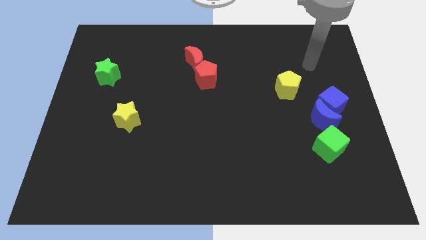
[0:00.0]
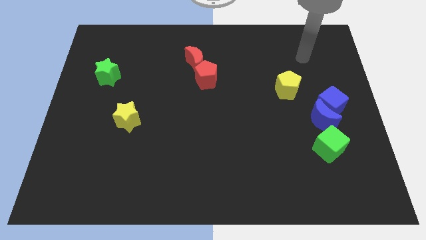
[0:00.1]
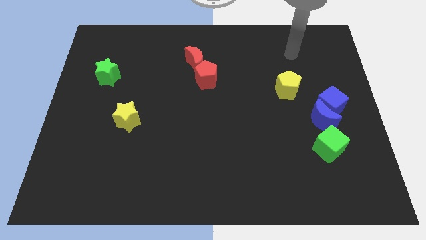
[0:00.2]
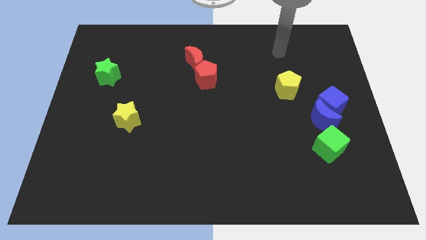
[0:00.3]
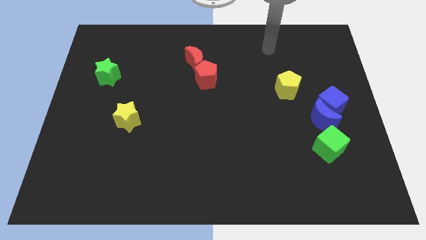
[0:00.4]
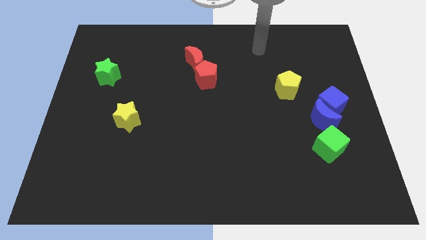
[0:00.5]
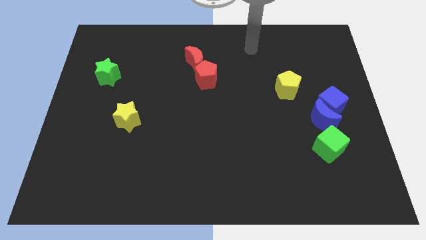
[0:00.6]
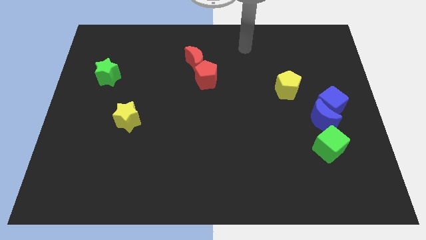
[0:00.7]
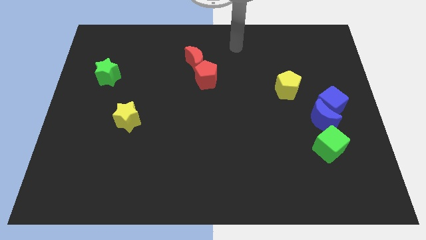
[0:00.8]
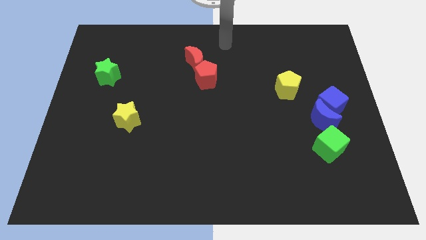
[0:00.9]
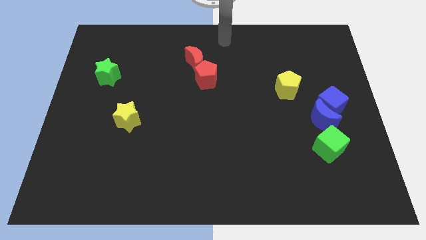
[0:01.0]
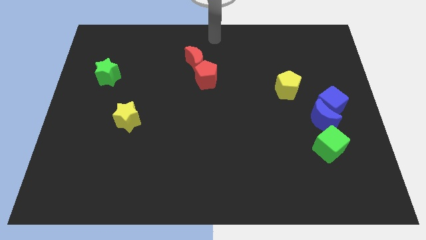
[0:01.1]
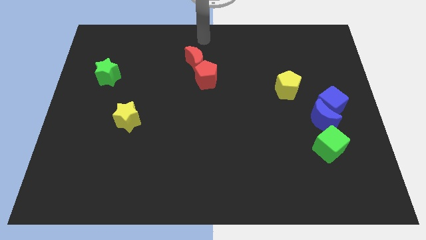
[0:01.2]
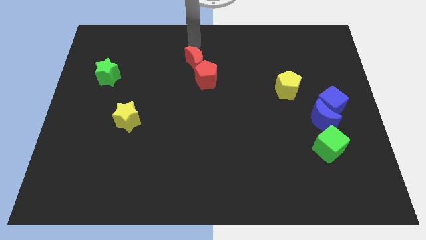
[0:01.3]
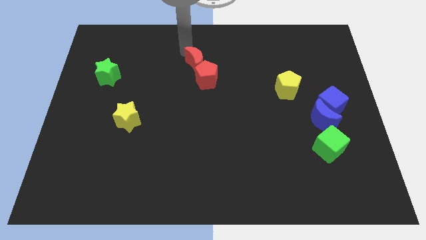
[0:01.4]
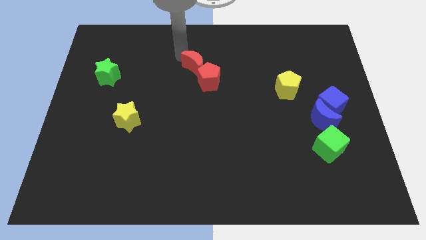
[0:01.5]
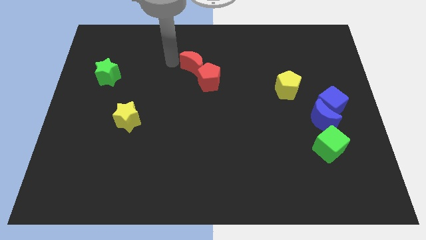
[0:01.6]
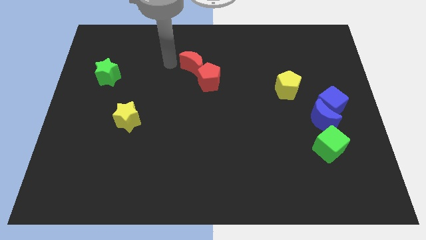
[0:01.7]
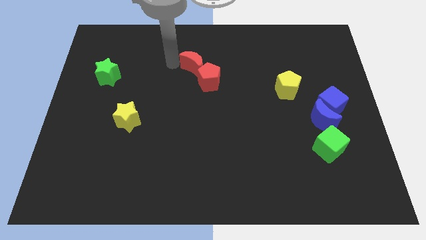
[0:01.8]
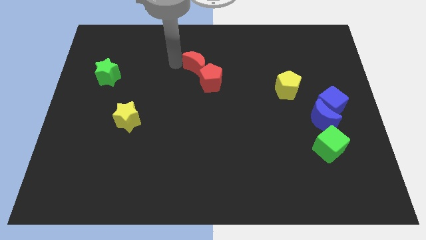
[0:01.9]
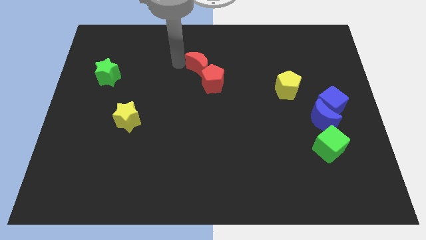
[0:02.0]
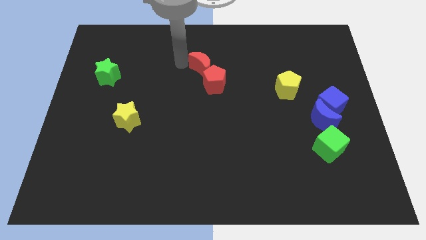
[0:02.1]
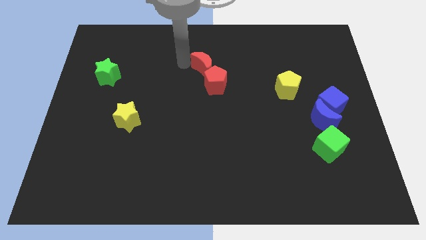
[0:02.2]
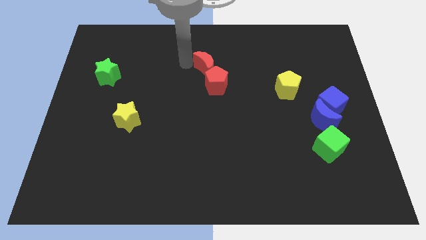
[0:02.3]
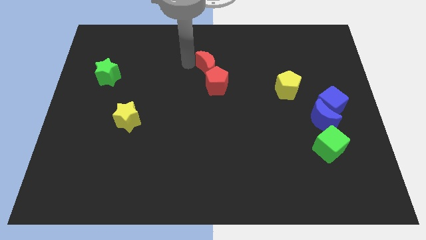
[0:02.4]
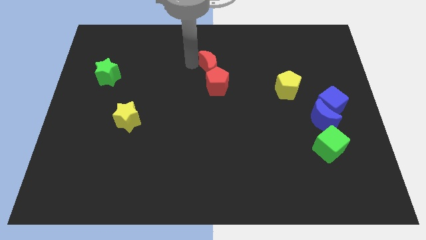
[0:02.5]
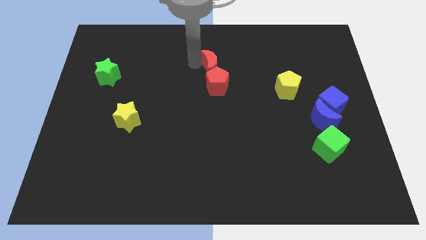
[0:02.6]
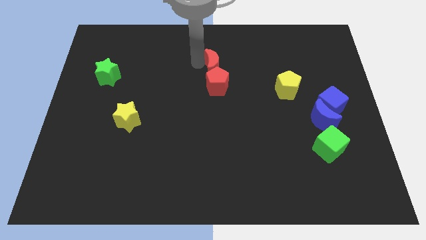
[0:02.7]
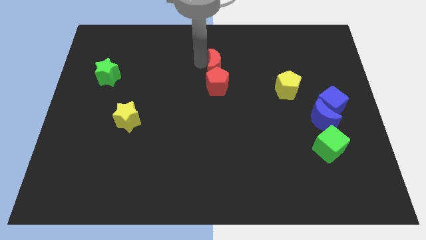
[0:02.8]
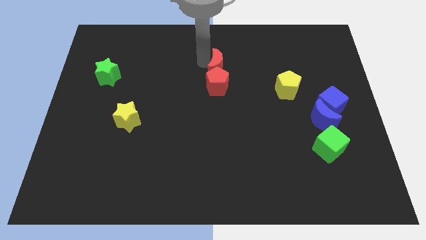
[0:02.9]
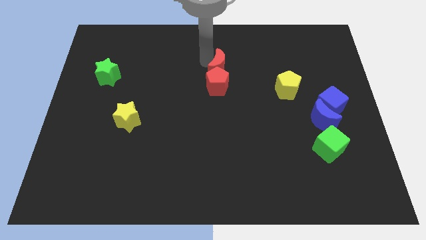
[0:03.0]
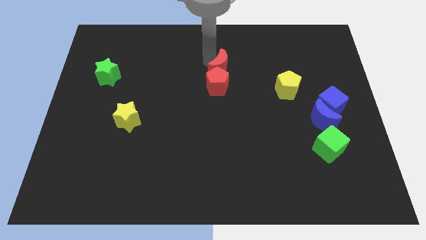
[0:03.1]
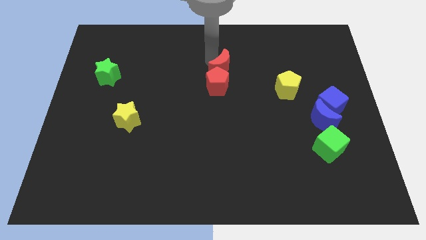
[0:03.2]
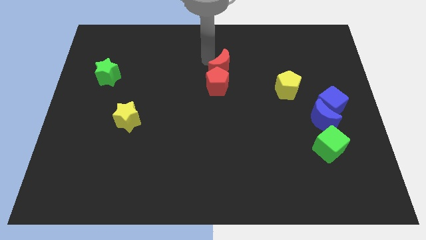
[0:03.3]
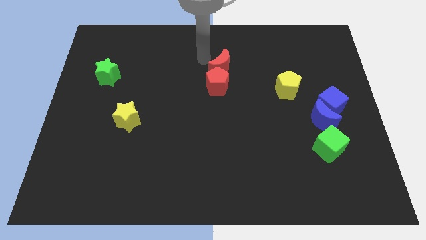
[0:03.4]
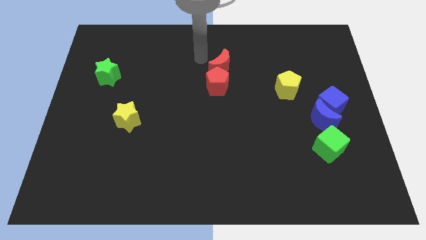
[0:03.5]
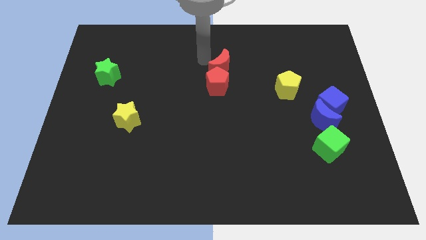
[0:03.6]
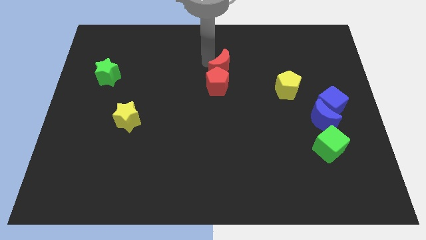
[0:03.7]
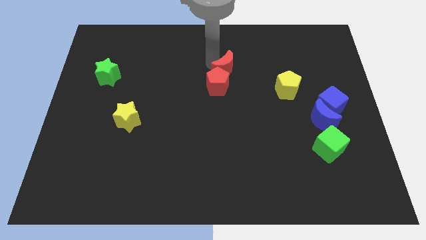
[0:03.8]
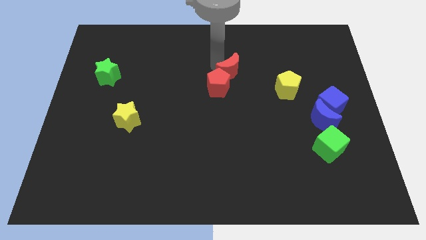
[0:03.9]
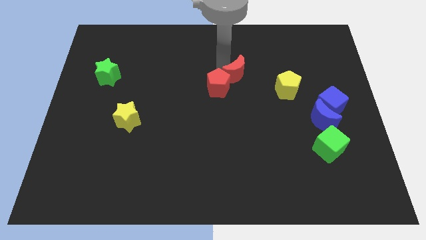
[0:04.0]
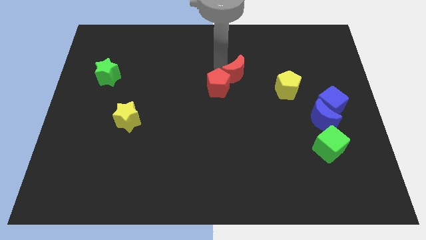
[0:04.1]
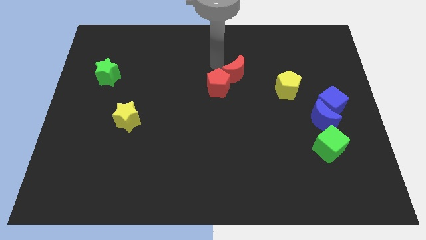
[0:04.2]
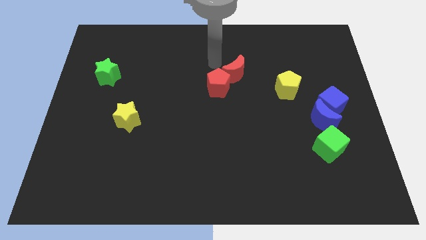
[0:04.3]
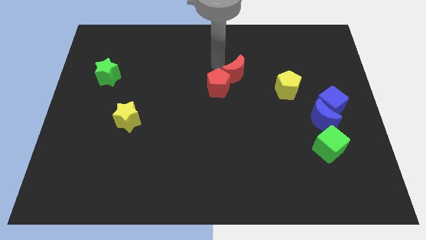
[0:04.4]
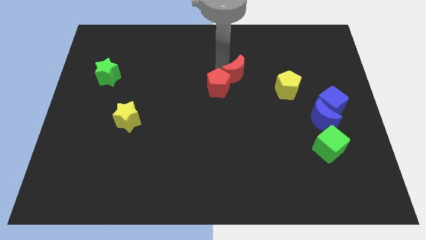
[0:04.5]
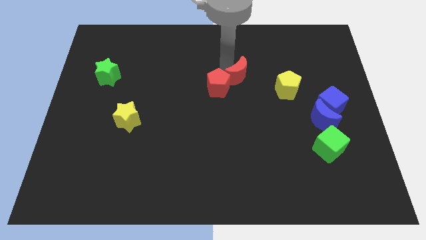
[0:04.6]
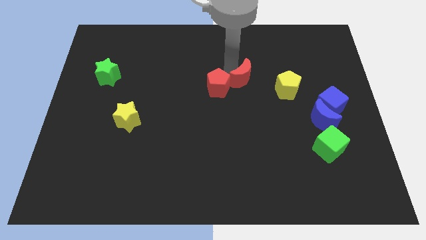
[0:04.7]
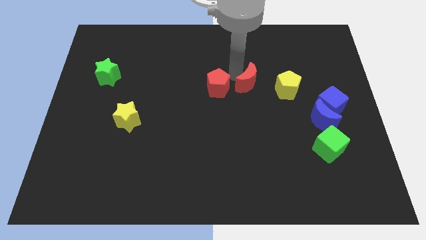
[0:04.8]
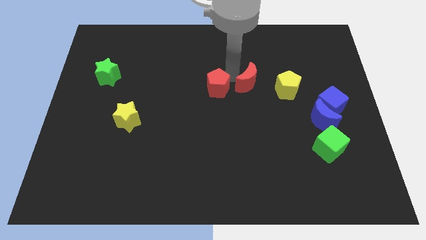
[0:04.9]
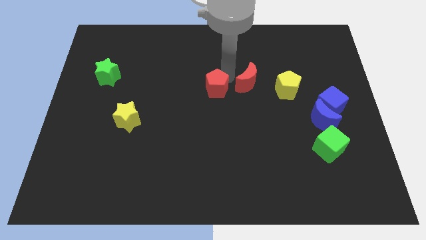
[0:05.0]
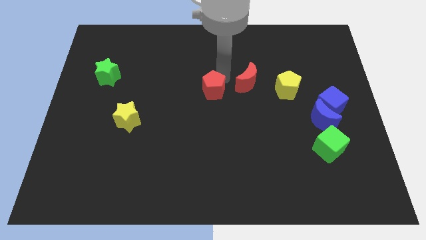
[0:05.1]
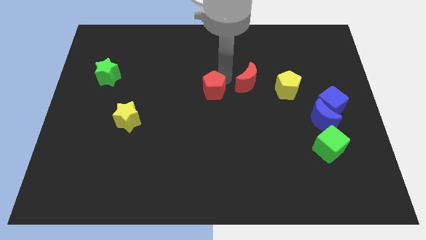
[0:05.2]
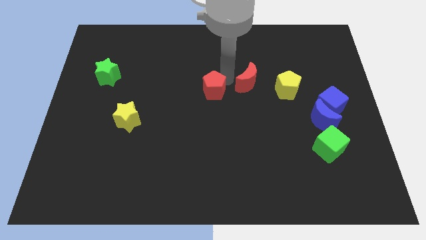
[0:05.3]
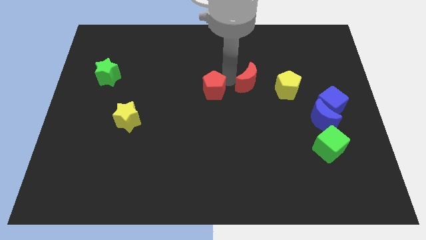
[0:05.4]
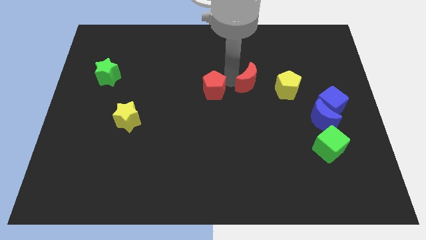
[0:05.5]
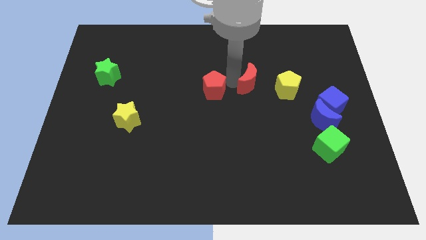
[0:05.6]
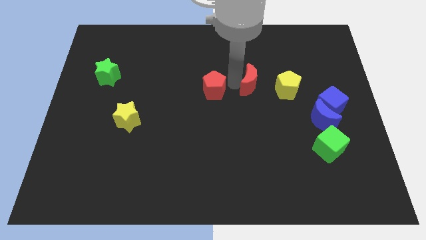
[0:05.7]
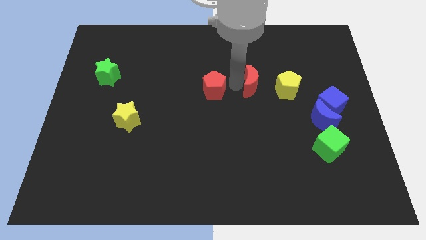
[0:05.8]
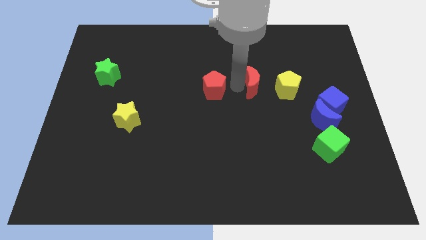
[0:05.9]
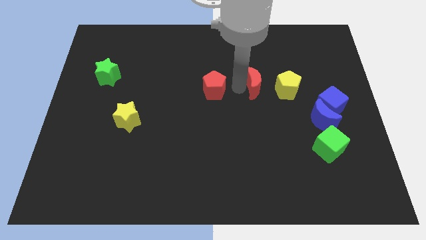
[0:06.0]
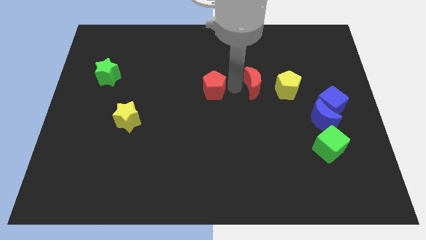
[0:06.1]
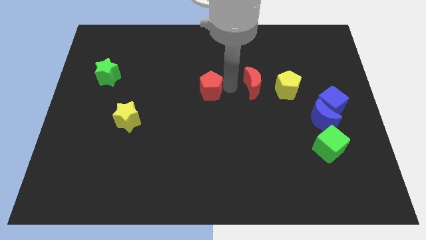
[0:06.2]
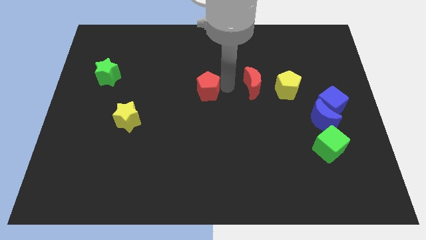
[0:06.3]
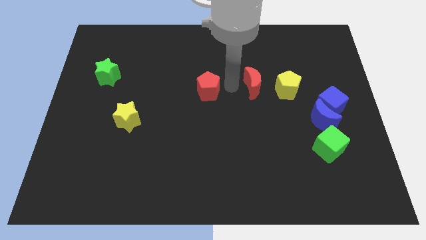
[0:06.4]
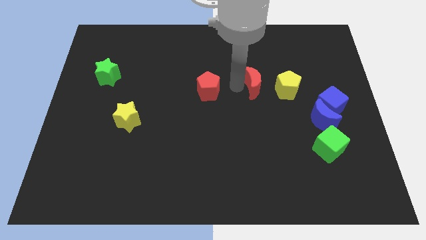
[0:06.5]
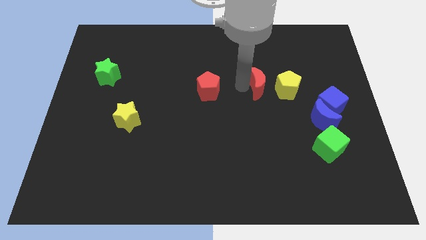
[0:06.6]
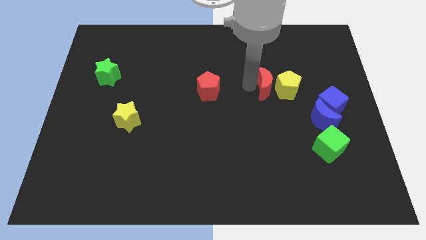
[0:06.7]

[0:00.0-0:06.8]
put the red moon towards the yellow pentagon

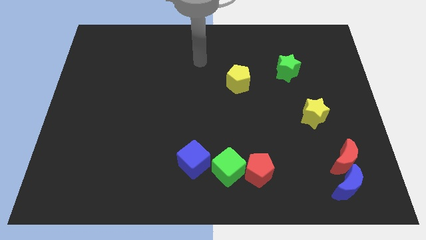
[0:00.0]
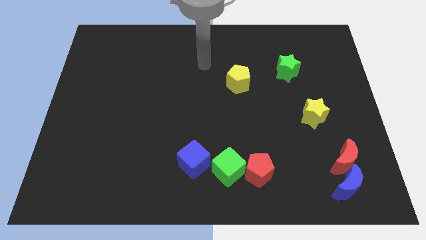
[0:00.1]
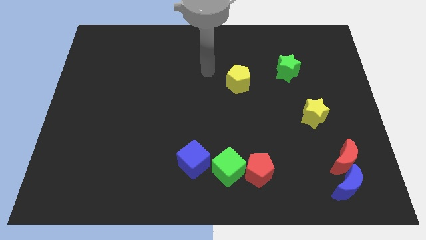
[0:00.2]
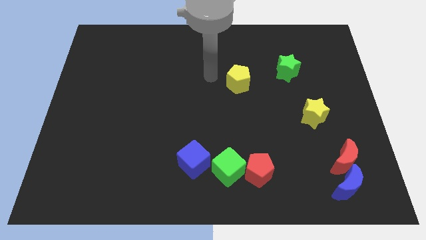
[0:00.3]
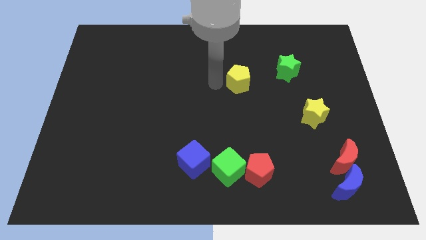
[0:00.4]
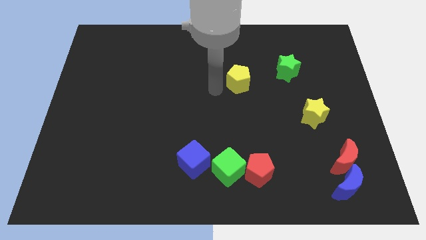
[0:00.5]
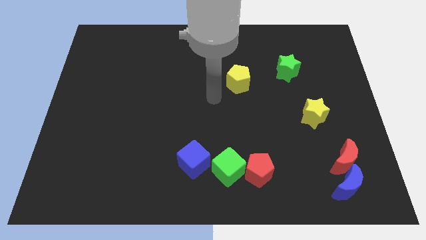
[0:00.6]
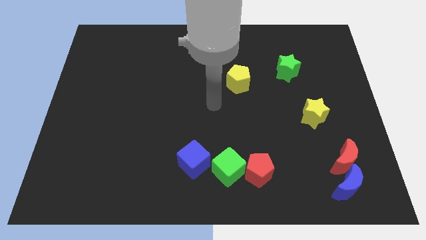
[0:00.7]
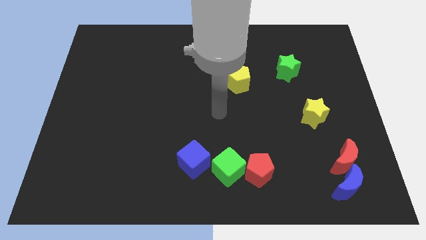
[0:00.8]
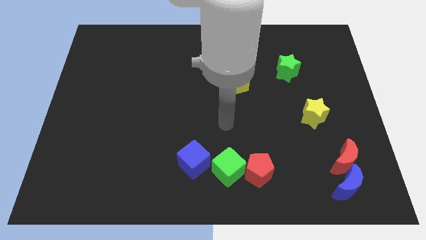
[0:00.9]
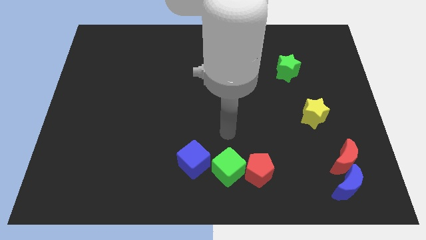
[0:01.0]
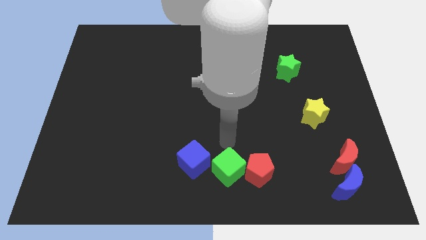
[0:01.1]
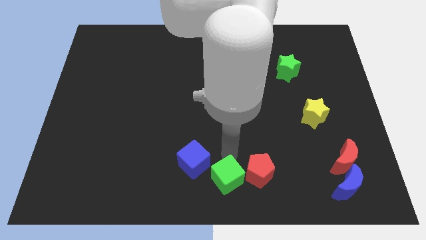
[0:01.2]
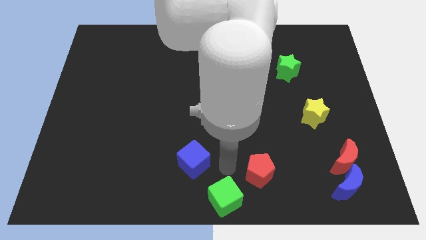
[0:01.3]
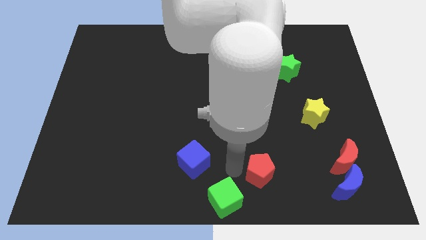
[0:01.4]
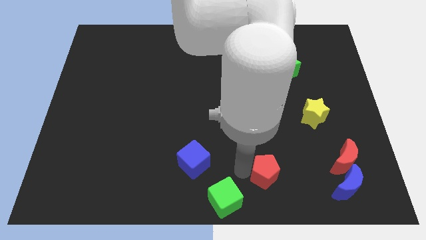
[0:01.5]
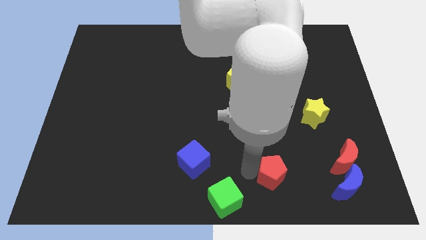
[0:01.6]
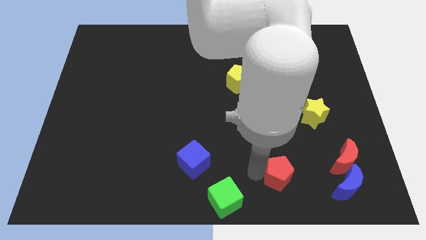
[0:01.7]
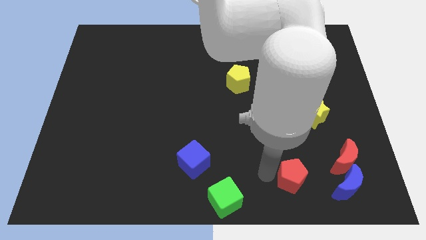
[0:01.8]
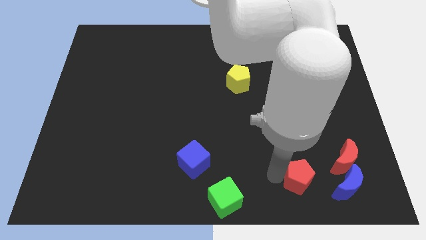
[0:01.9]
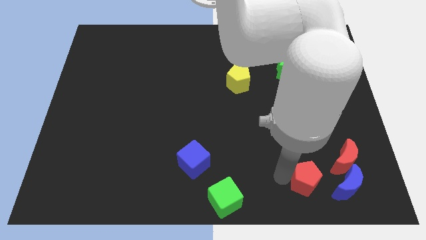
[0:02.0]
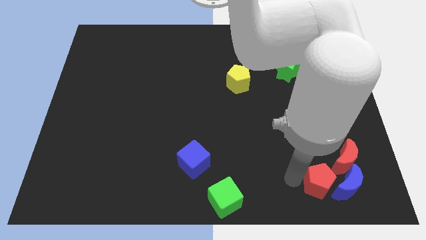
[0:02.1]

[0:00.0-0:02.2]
put the red pentagon towards the blue moon
